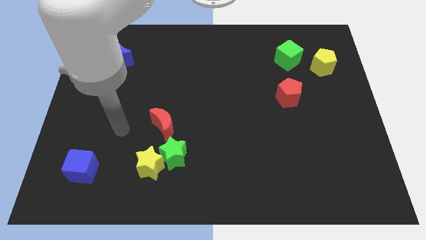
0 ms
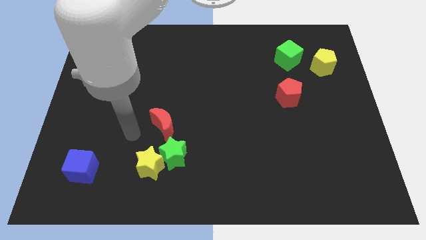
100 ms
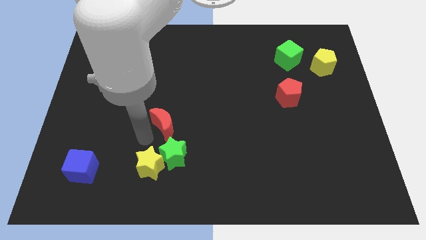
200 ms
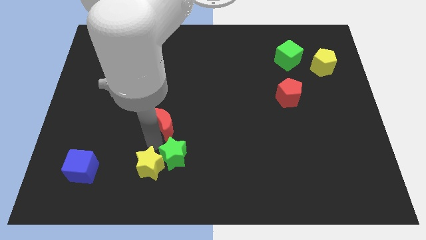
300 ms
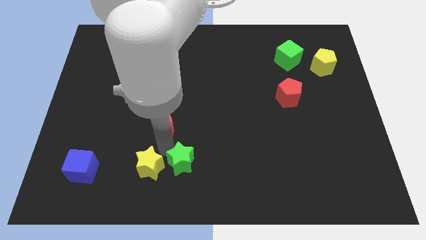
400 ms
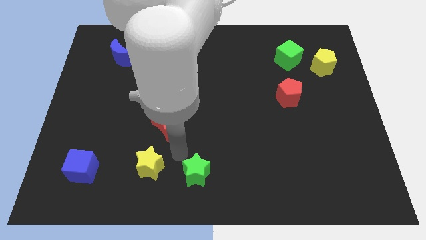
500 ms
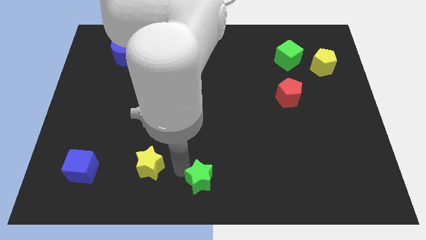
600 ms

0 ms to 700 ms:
move the yellow star away from the green star

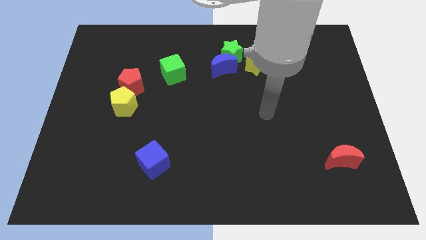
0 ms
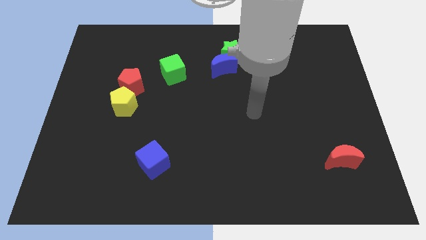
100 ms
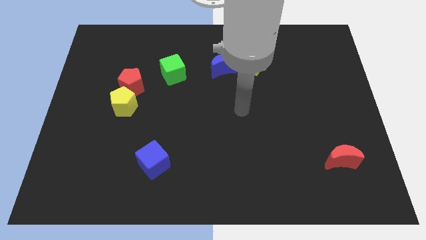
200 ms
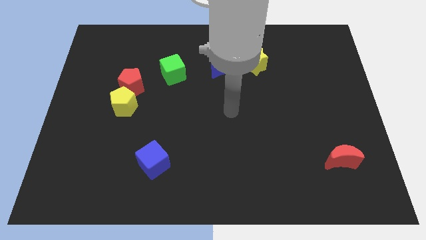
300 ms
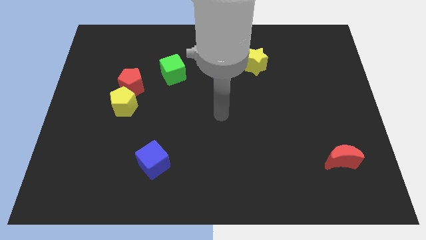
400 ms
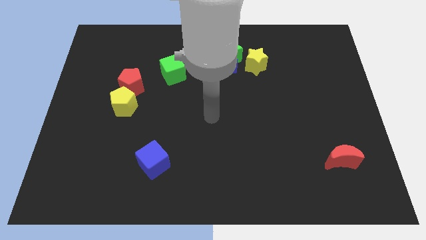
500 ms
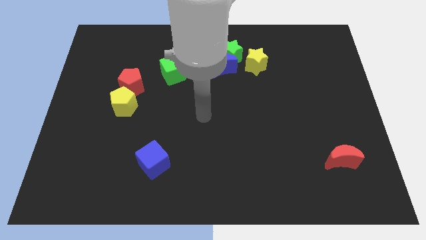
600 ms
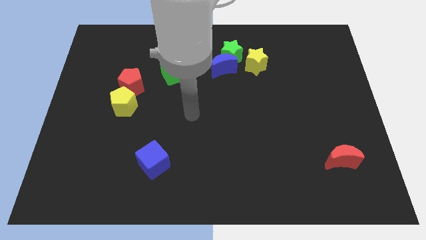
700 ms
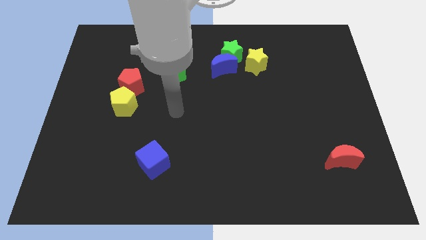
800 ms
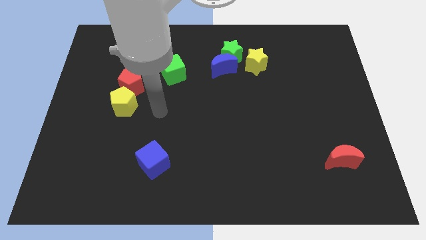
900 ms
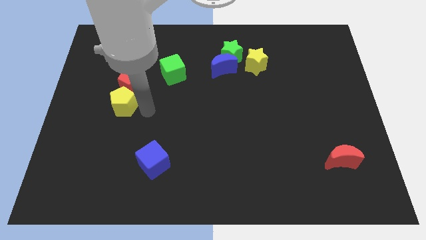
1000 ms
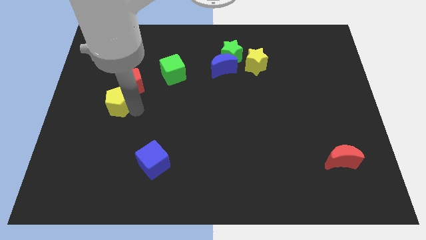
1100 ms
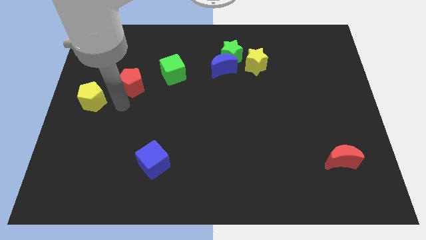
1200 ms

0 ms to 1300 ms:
separate the red pentagon from the yellow pentagon

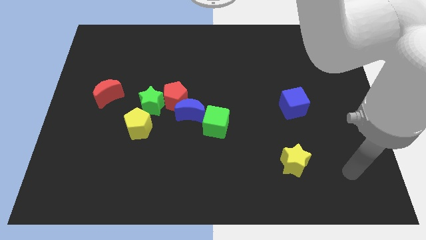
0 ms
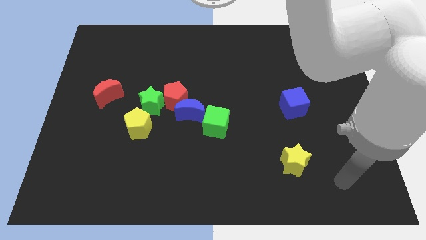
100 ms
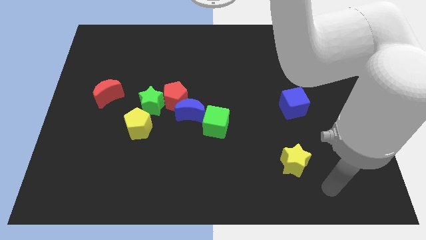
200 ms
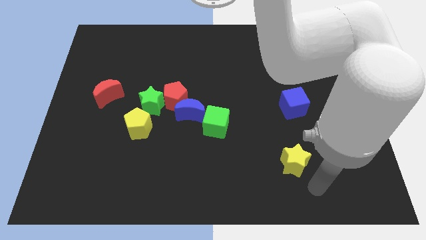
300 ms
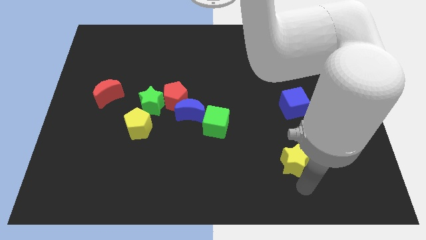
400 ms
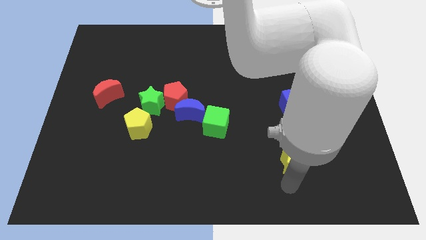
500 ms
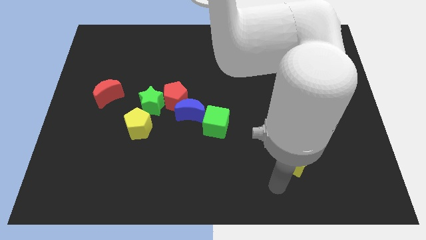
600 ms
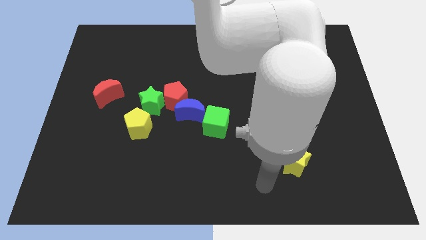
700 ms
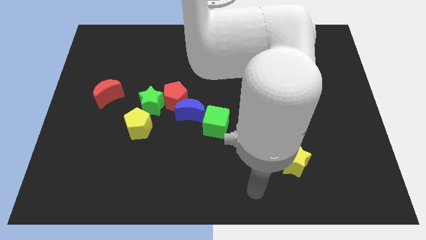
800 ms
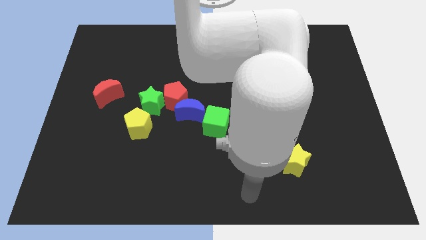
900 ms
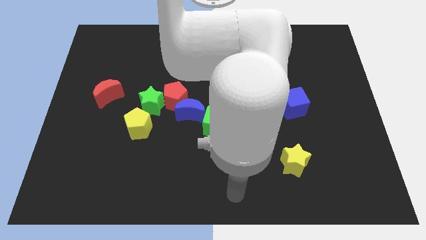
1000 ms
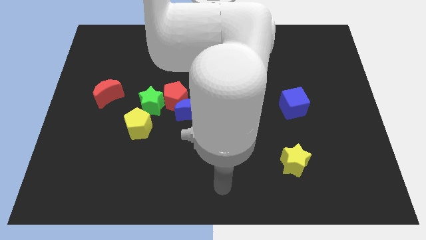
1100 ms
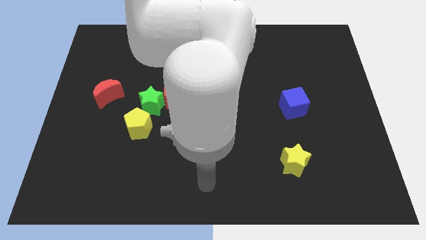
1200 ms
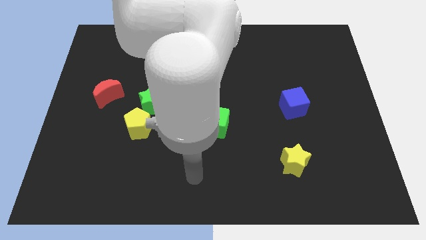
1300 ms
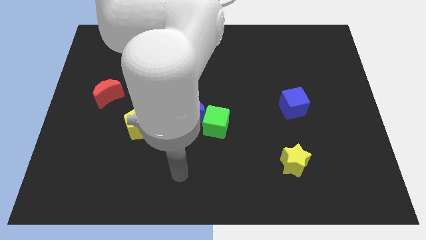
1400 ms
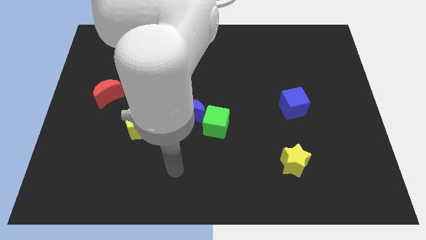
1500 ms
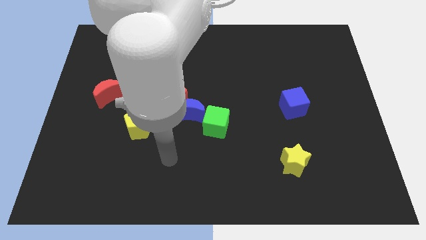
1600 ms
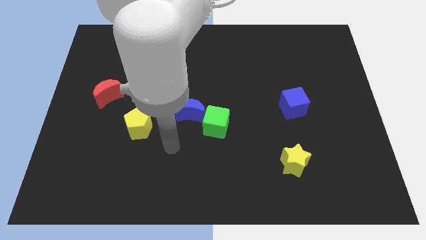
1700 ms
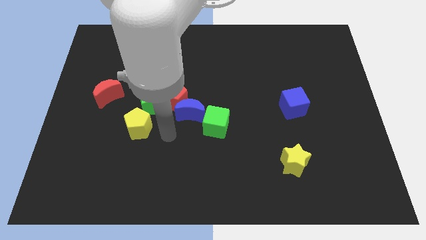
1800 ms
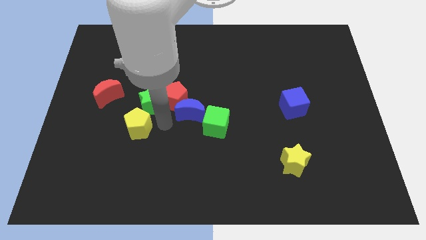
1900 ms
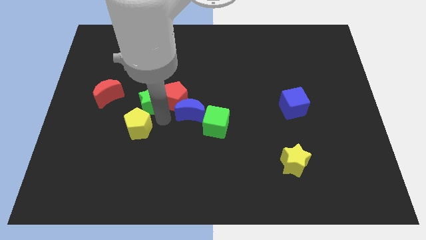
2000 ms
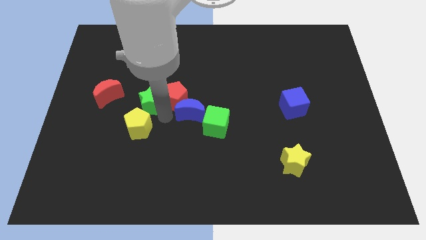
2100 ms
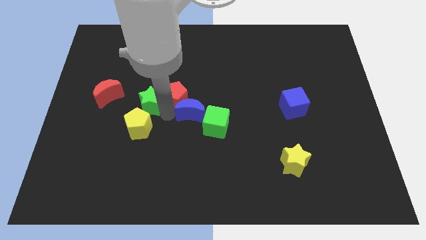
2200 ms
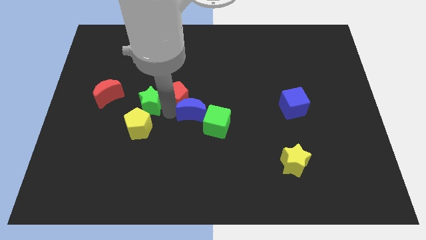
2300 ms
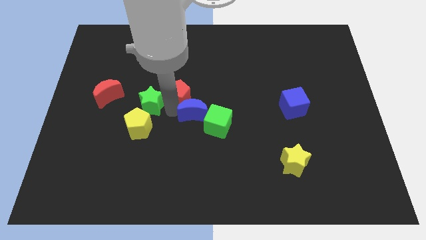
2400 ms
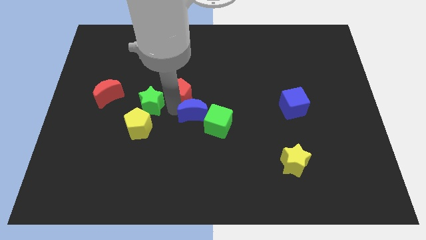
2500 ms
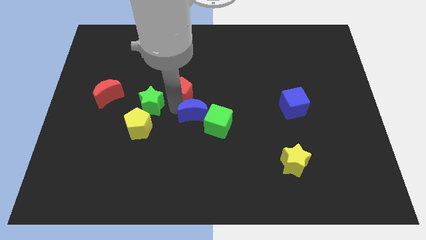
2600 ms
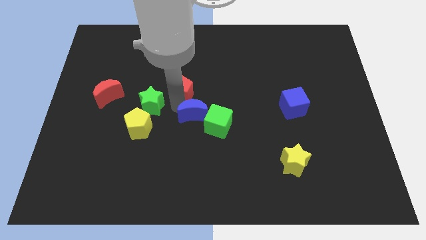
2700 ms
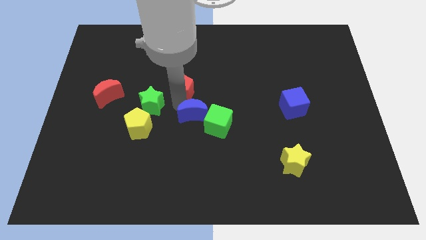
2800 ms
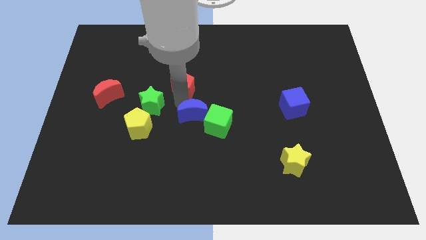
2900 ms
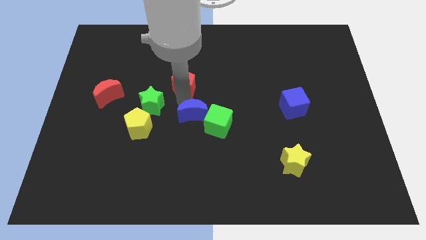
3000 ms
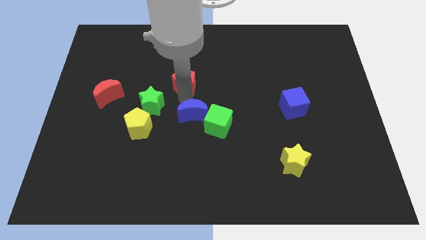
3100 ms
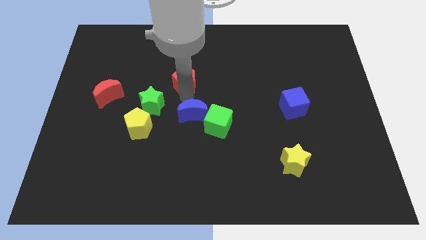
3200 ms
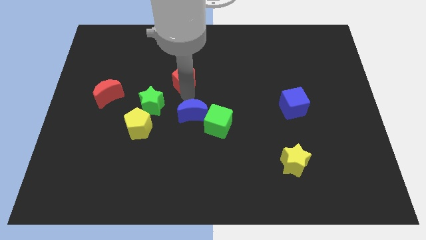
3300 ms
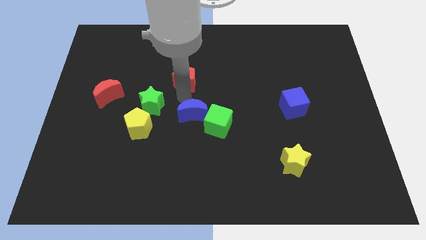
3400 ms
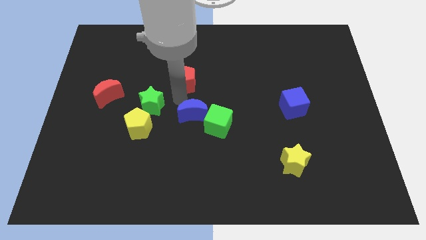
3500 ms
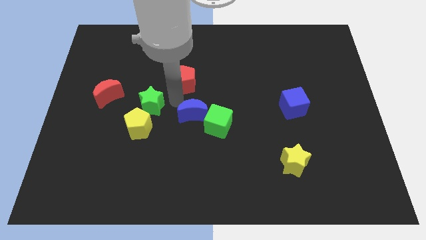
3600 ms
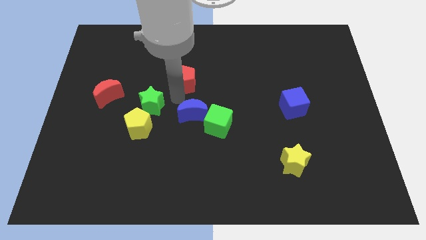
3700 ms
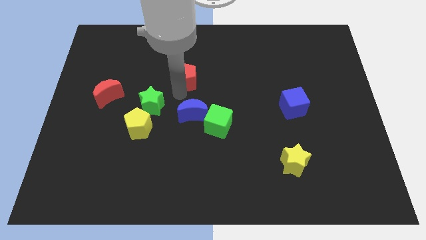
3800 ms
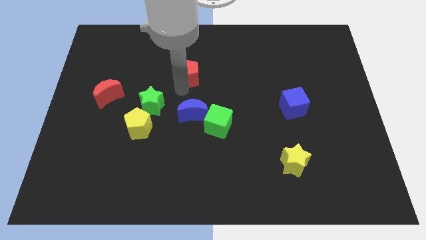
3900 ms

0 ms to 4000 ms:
pull the red pentagon apart from the blue moon and green star

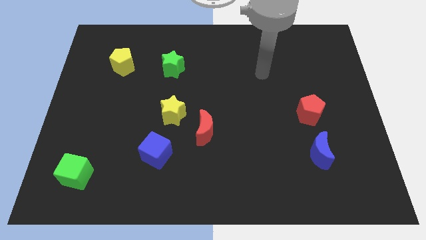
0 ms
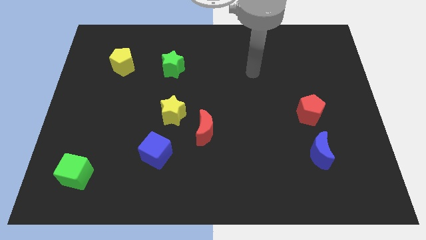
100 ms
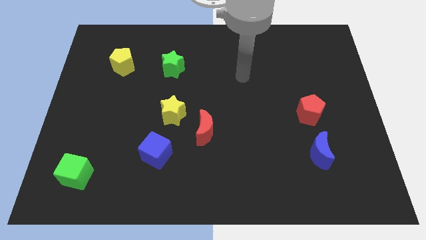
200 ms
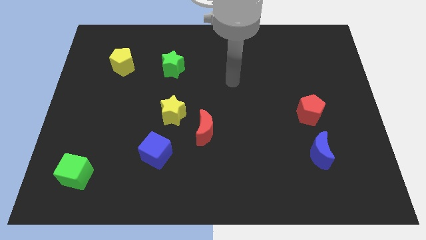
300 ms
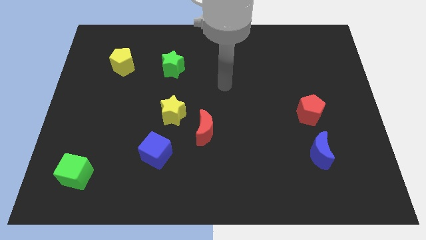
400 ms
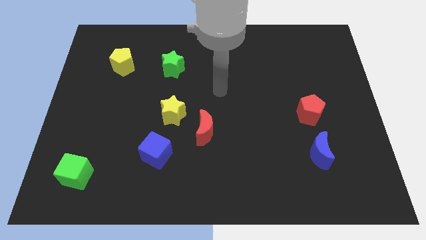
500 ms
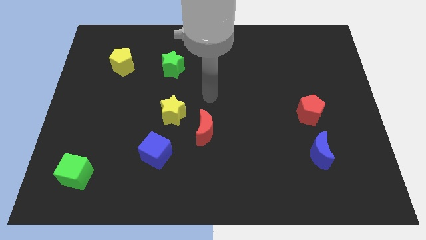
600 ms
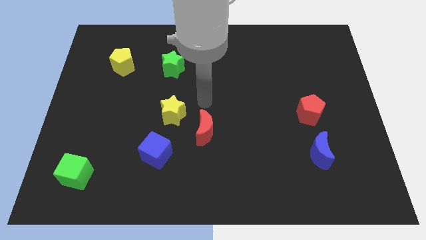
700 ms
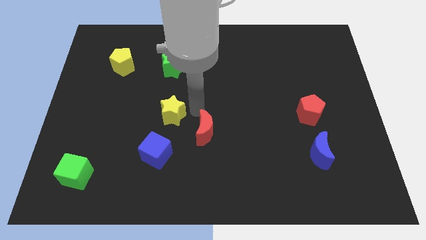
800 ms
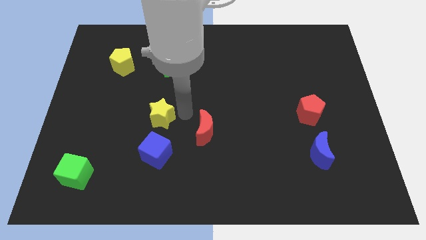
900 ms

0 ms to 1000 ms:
move the red moon away from the yellow star

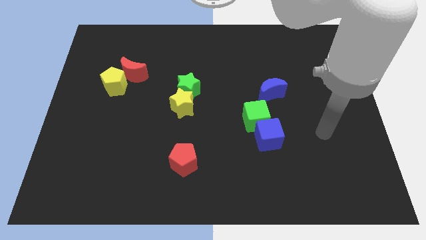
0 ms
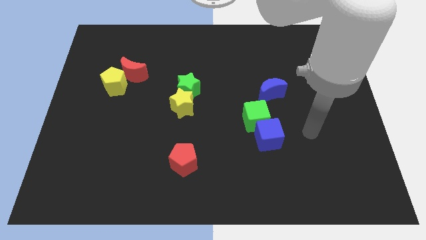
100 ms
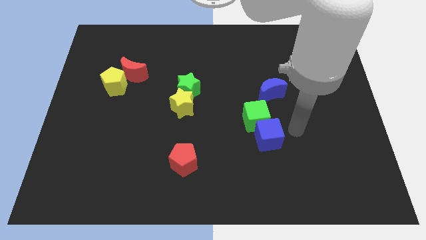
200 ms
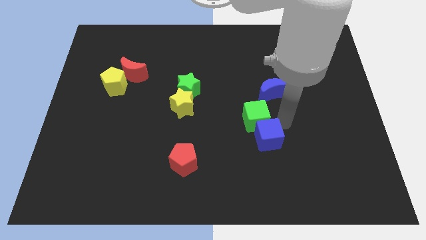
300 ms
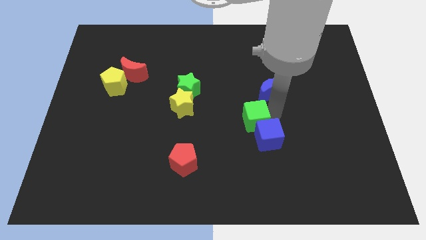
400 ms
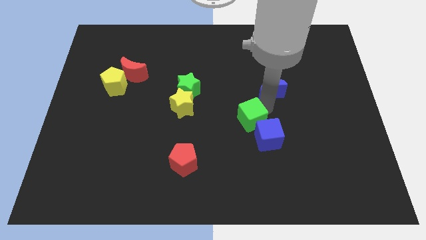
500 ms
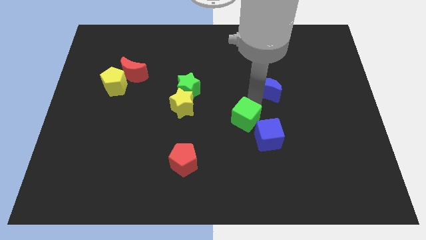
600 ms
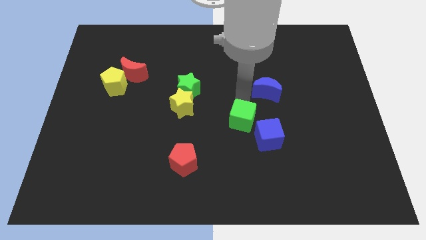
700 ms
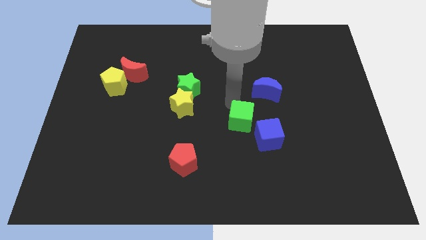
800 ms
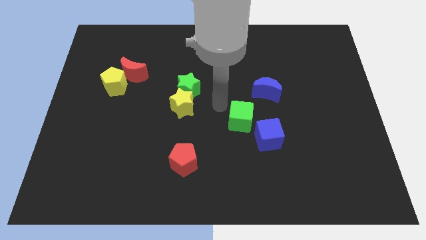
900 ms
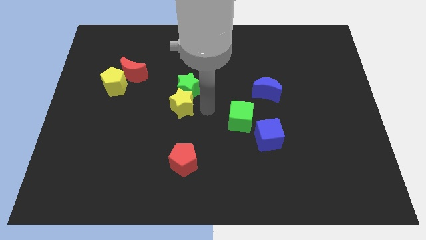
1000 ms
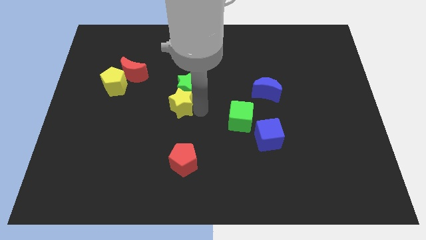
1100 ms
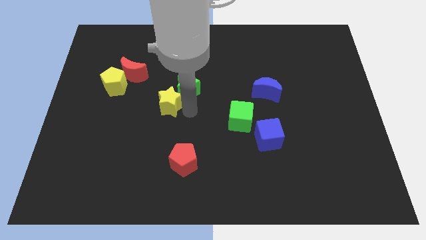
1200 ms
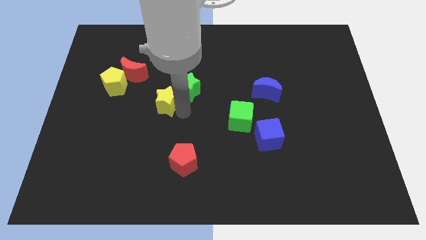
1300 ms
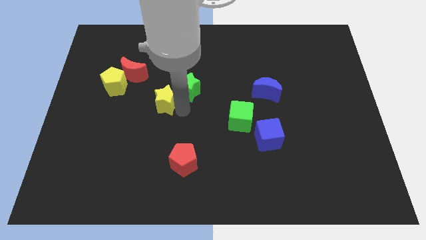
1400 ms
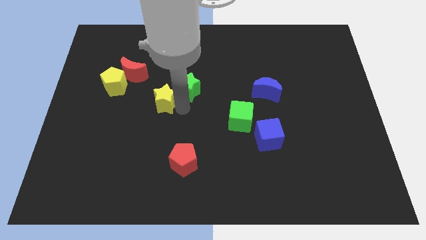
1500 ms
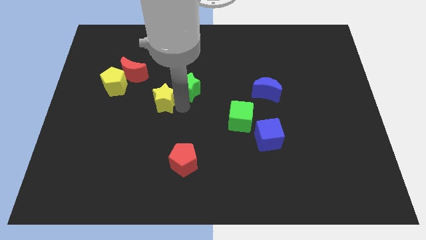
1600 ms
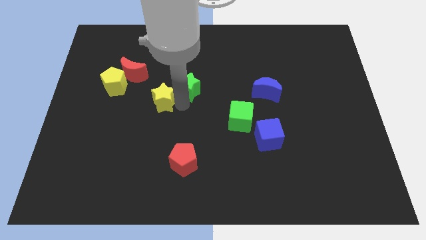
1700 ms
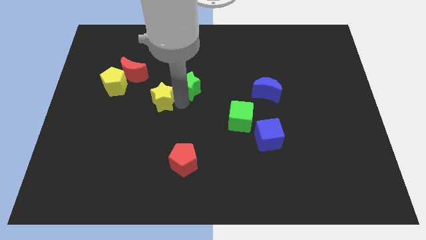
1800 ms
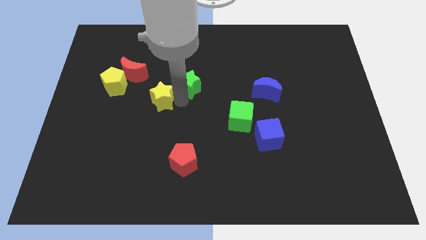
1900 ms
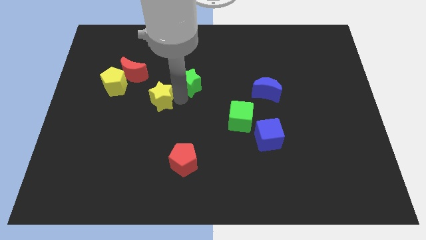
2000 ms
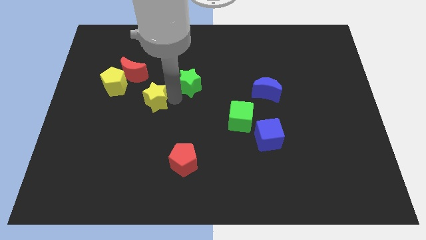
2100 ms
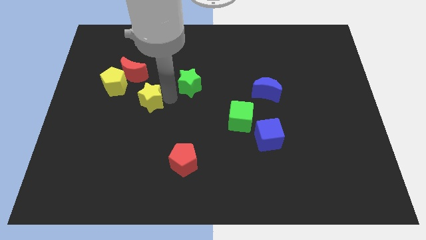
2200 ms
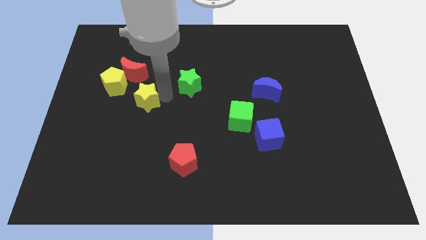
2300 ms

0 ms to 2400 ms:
pull the green star apart from the yellow star
